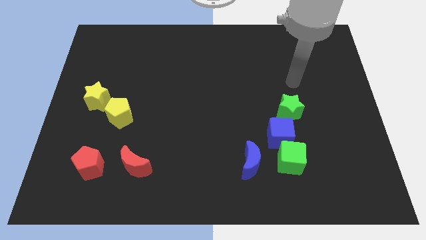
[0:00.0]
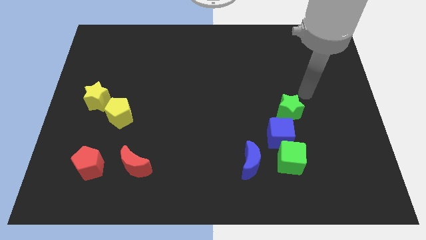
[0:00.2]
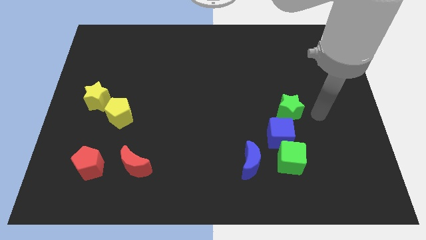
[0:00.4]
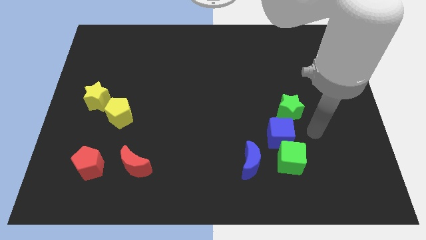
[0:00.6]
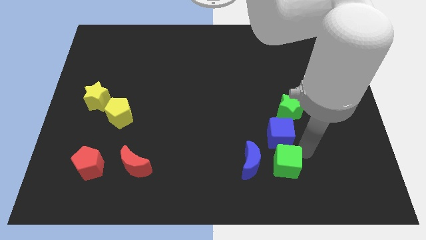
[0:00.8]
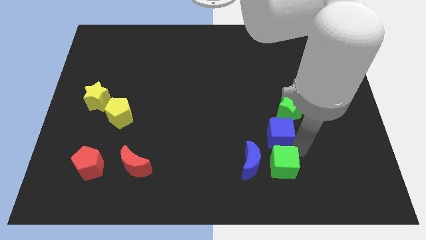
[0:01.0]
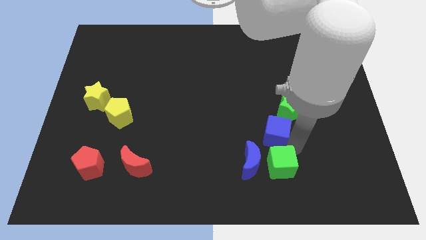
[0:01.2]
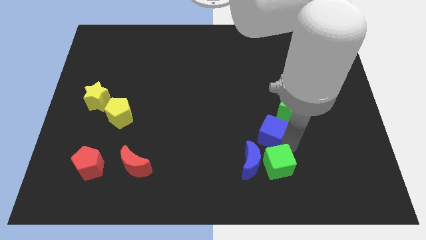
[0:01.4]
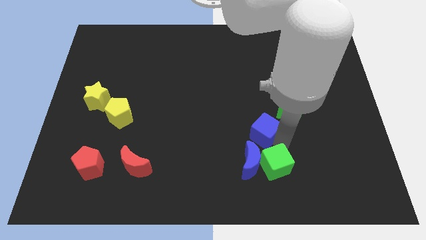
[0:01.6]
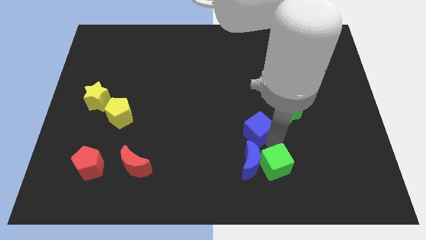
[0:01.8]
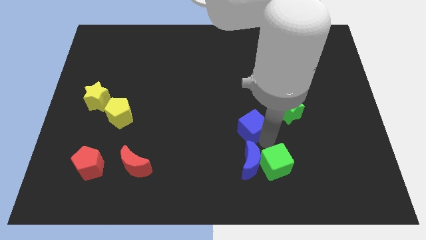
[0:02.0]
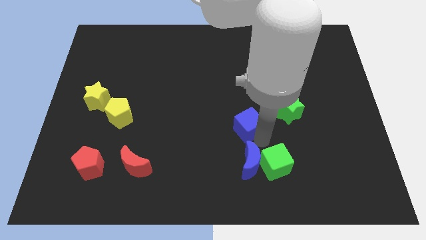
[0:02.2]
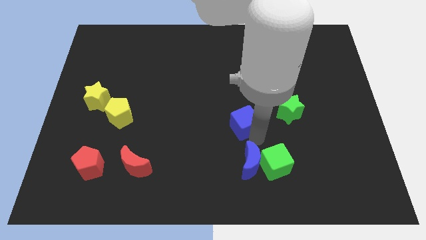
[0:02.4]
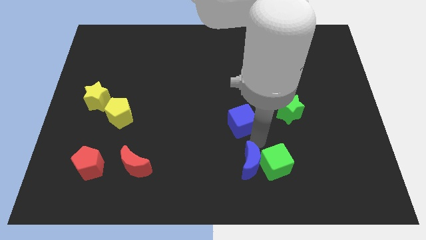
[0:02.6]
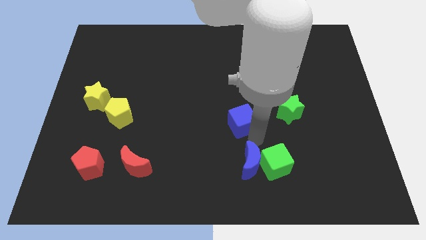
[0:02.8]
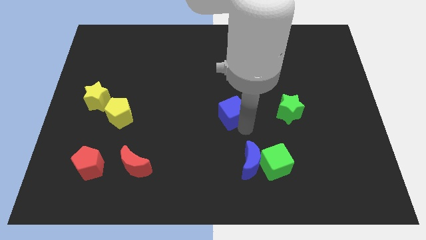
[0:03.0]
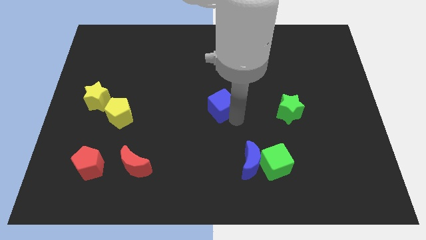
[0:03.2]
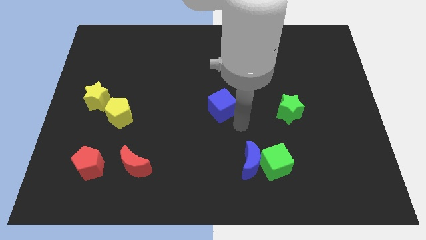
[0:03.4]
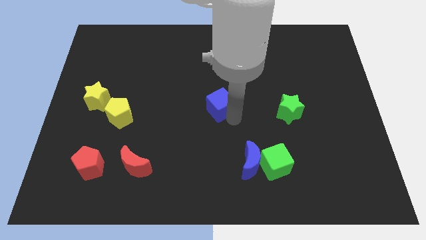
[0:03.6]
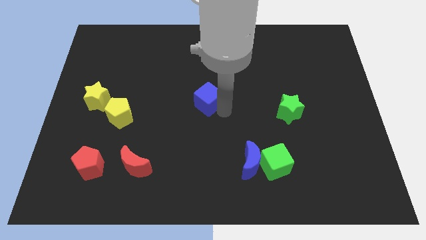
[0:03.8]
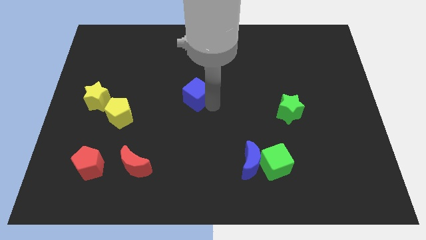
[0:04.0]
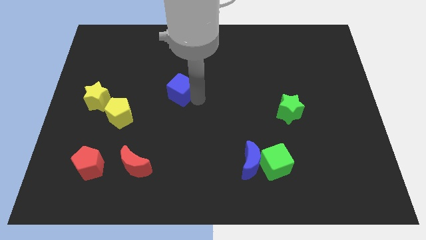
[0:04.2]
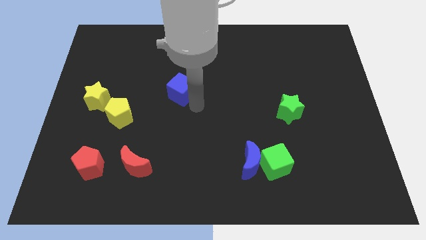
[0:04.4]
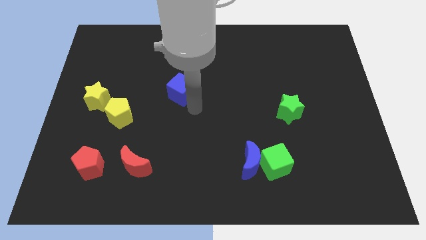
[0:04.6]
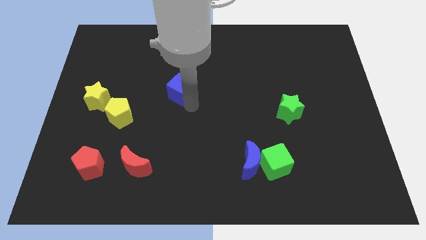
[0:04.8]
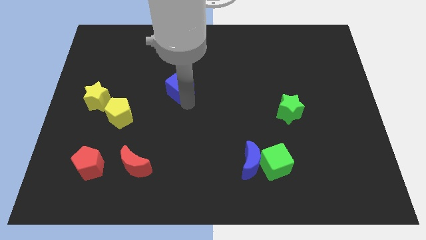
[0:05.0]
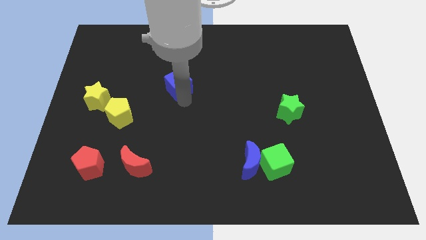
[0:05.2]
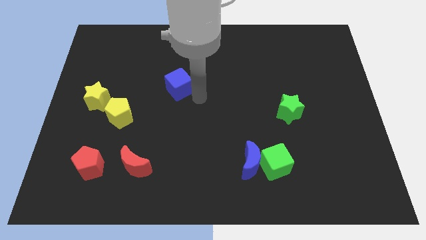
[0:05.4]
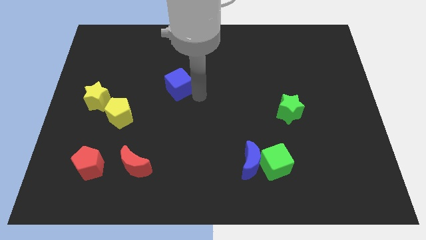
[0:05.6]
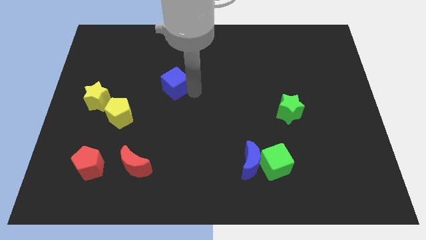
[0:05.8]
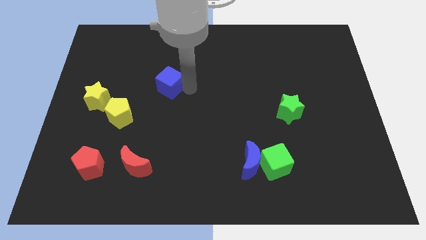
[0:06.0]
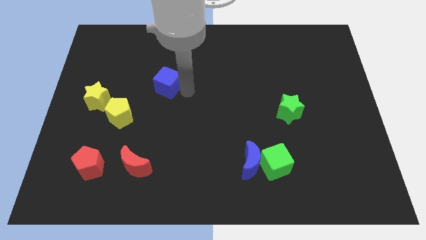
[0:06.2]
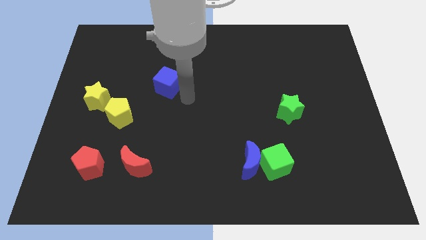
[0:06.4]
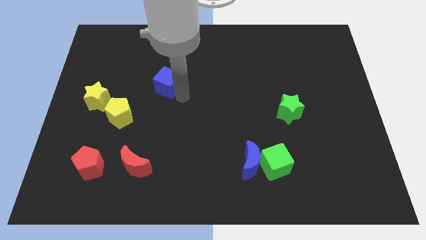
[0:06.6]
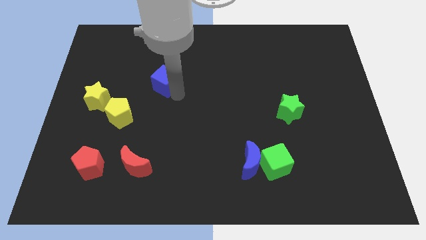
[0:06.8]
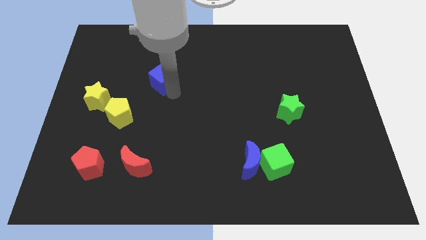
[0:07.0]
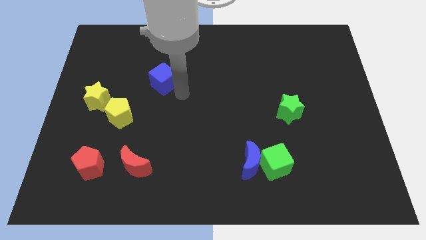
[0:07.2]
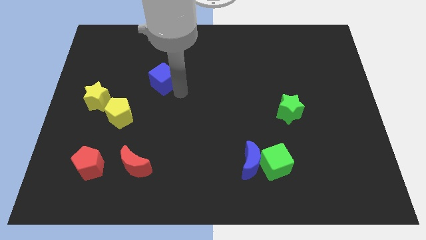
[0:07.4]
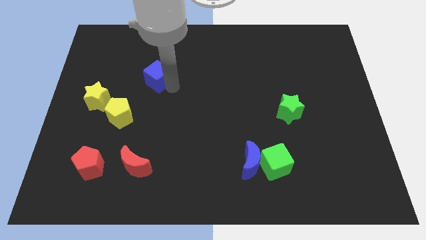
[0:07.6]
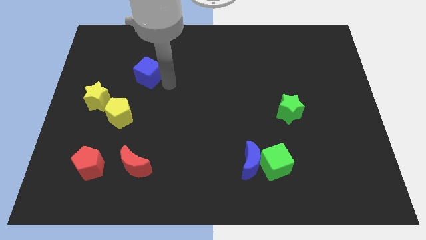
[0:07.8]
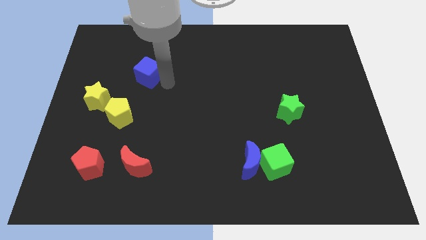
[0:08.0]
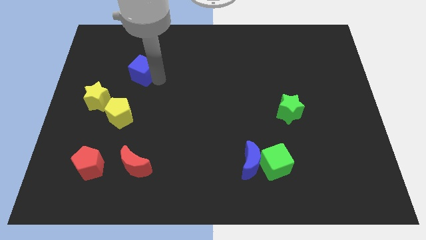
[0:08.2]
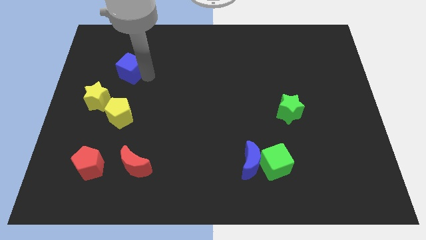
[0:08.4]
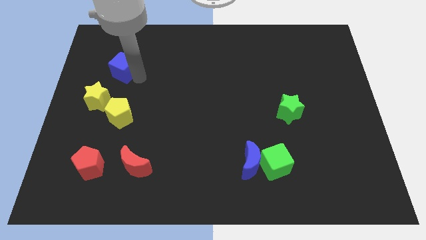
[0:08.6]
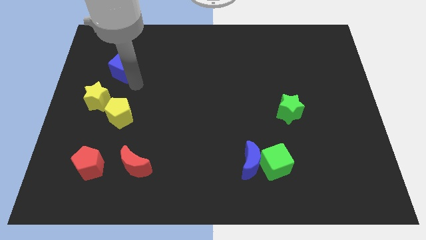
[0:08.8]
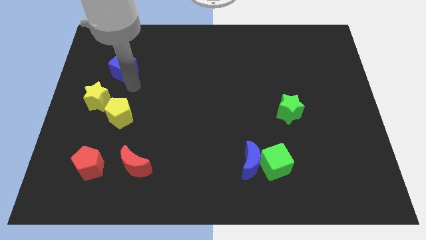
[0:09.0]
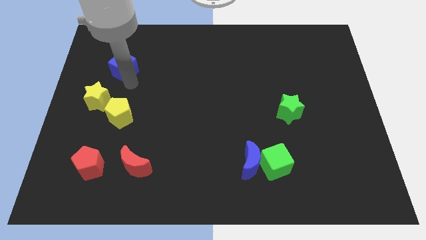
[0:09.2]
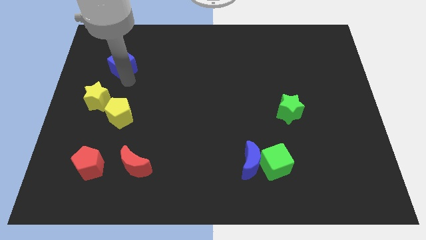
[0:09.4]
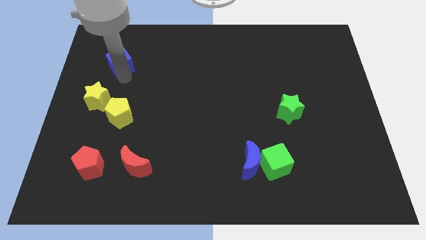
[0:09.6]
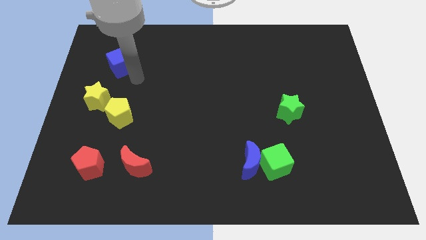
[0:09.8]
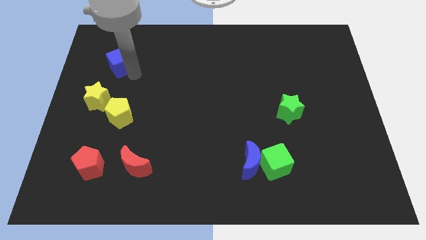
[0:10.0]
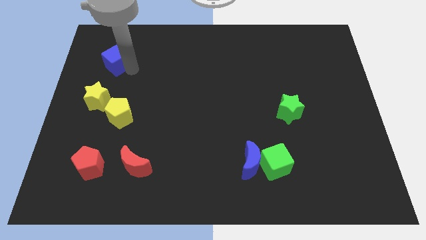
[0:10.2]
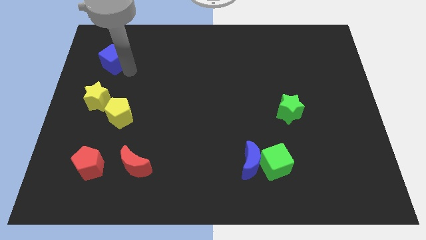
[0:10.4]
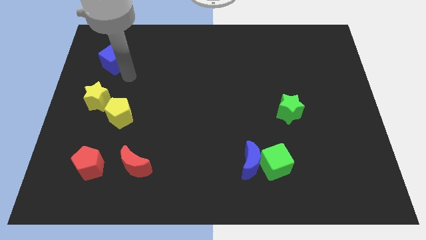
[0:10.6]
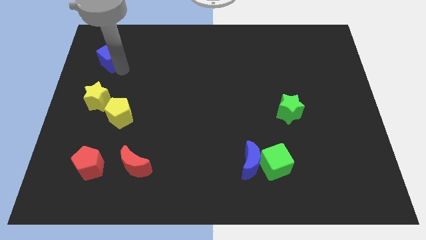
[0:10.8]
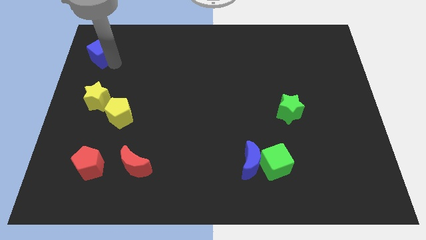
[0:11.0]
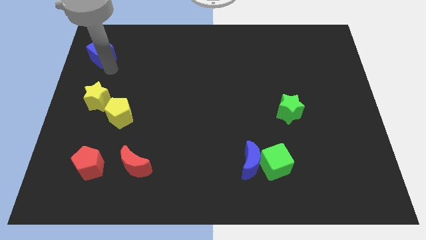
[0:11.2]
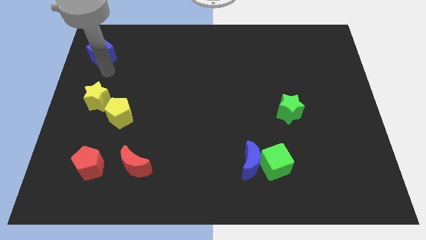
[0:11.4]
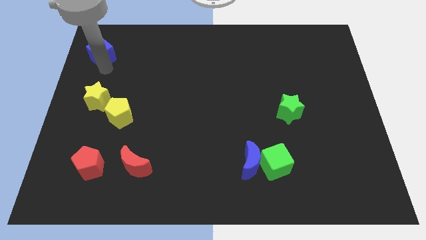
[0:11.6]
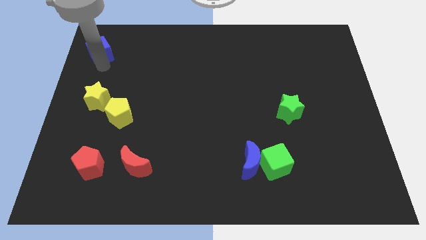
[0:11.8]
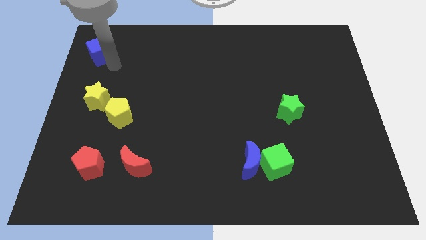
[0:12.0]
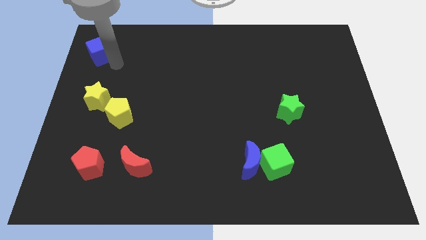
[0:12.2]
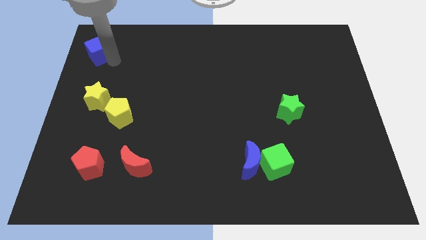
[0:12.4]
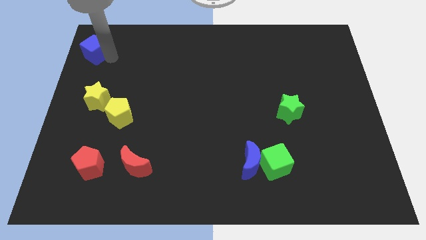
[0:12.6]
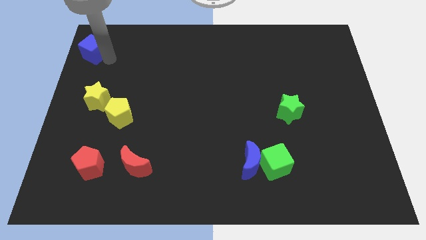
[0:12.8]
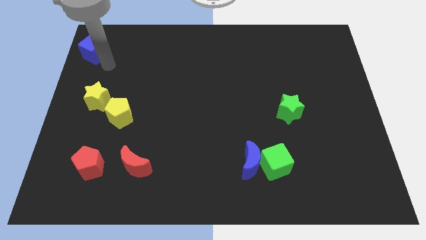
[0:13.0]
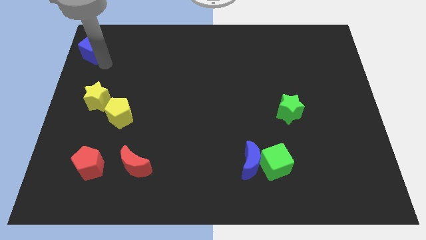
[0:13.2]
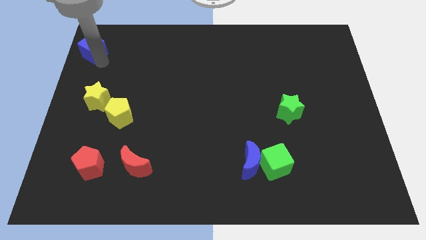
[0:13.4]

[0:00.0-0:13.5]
slide the blue cube to the upper left corner
